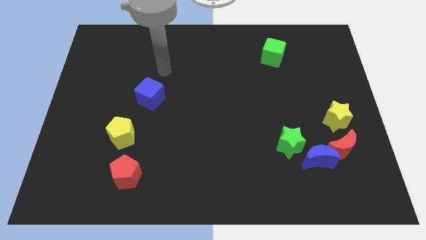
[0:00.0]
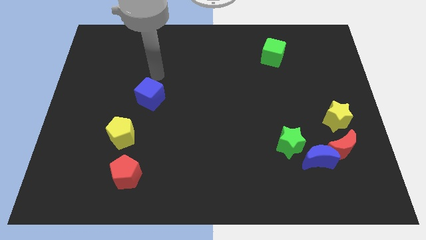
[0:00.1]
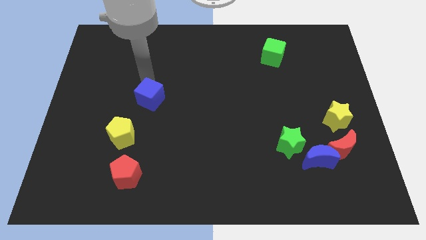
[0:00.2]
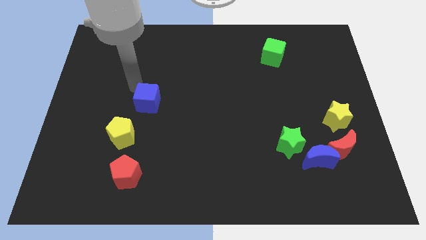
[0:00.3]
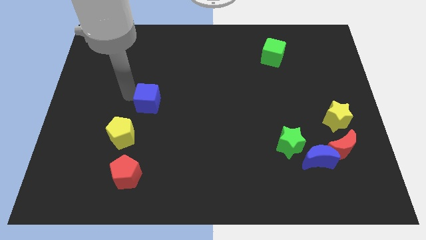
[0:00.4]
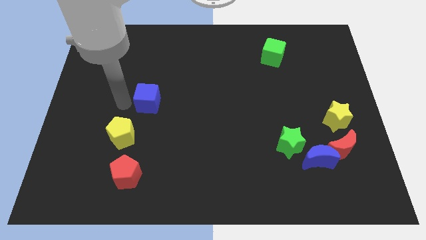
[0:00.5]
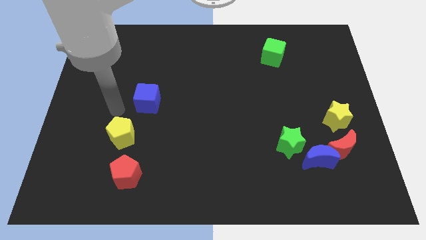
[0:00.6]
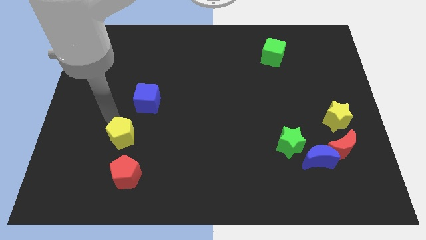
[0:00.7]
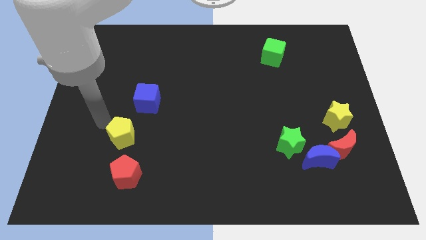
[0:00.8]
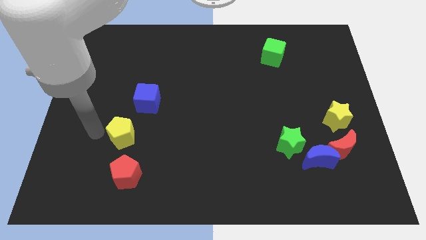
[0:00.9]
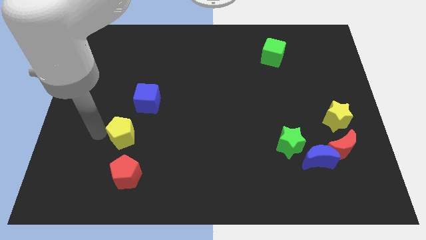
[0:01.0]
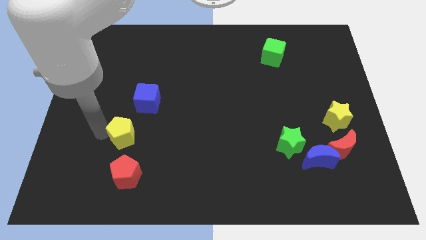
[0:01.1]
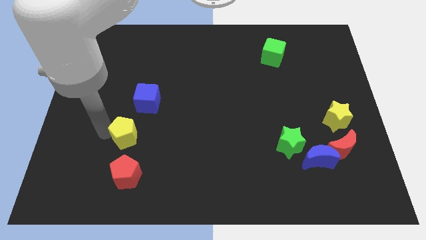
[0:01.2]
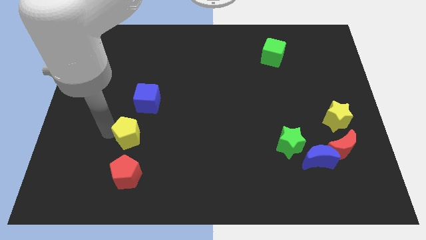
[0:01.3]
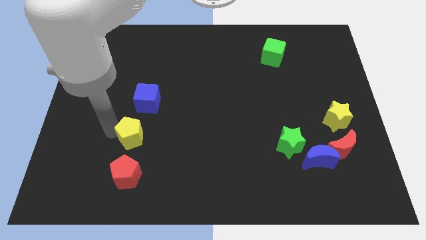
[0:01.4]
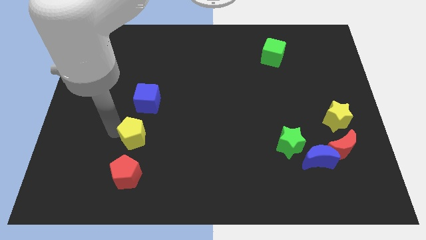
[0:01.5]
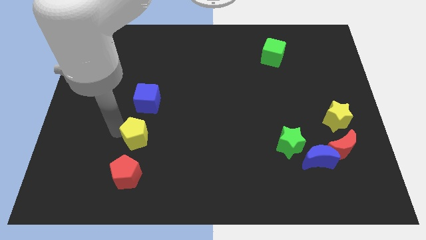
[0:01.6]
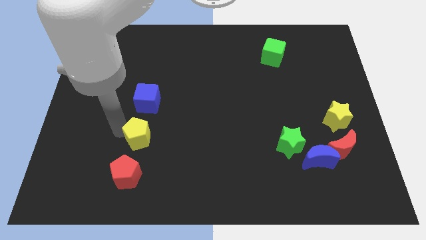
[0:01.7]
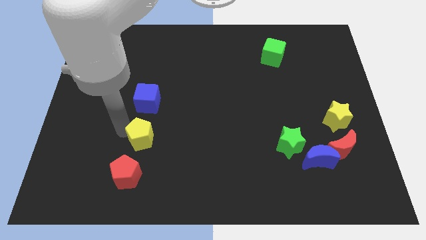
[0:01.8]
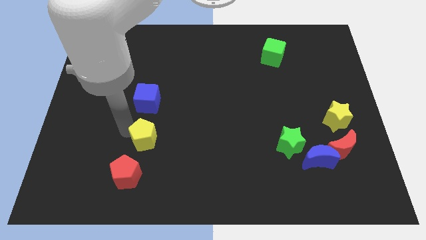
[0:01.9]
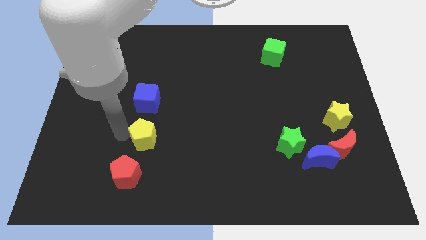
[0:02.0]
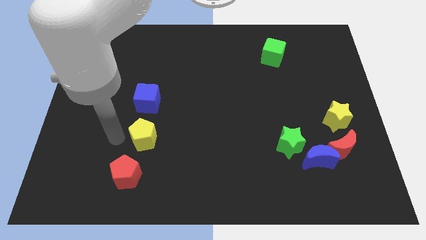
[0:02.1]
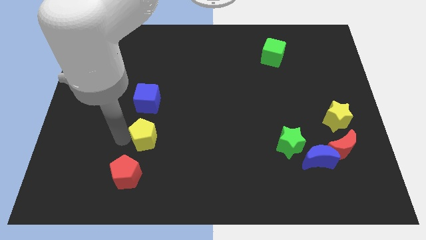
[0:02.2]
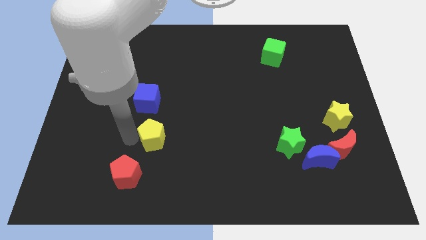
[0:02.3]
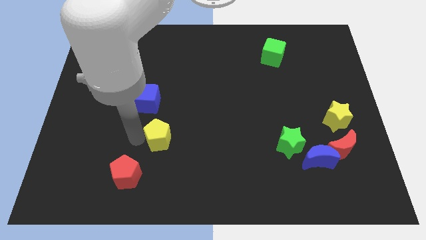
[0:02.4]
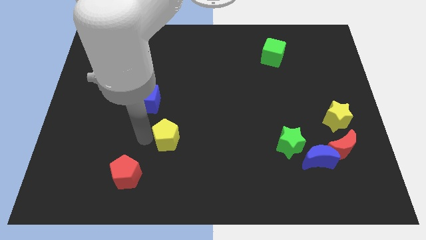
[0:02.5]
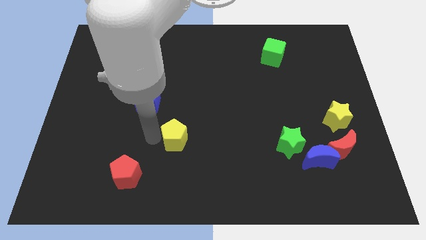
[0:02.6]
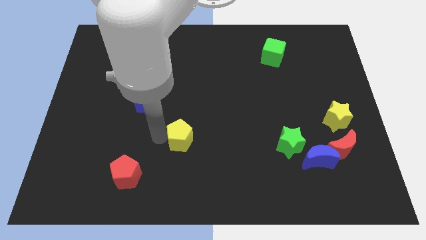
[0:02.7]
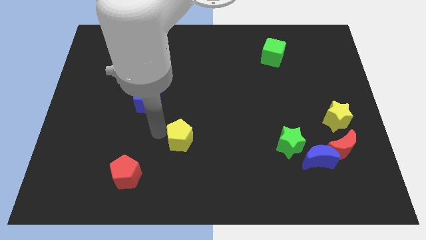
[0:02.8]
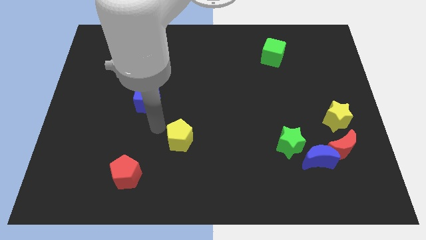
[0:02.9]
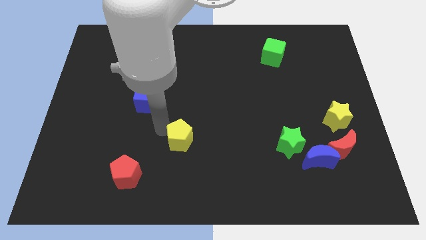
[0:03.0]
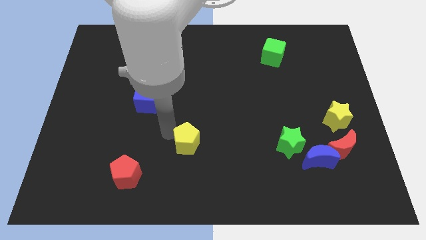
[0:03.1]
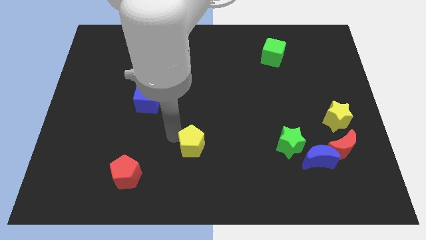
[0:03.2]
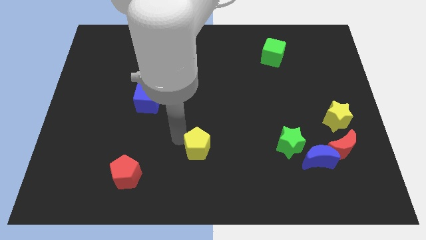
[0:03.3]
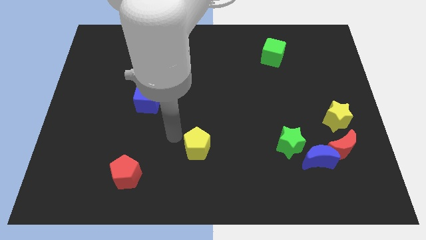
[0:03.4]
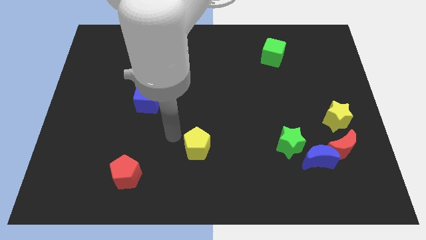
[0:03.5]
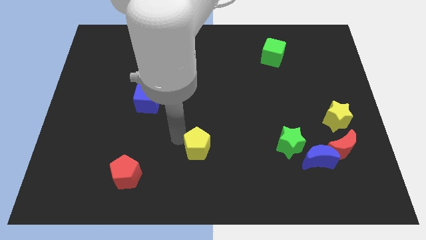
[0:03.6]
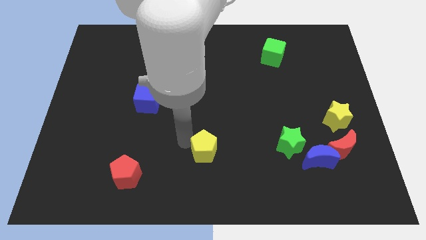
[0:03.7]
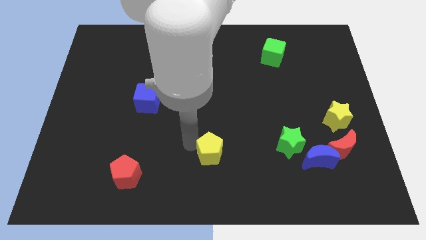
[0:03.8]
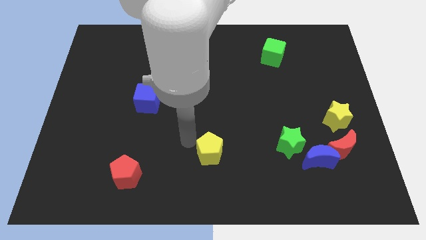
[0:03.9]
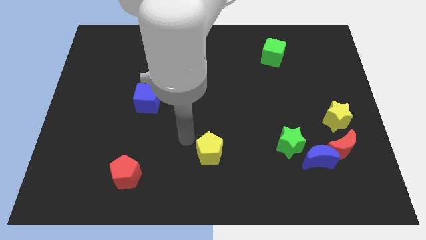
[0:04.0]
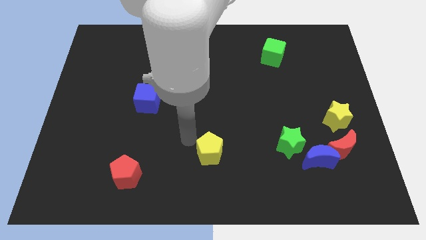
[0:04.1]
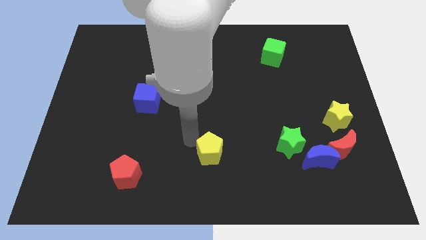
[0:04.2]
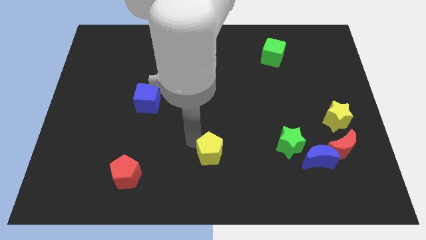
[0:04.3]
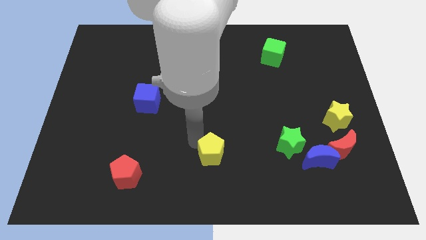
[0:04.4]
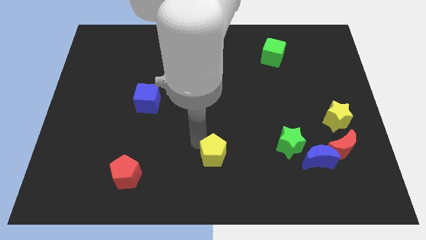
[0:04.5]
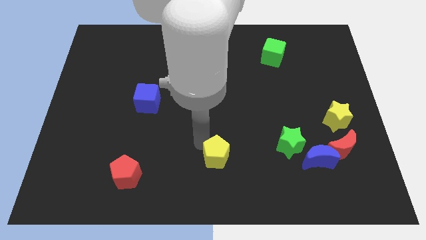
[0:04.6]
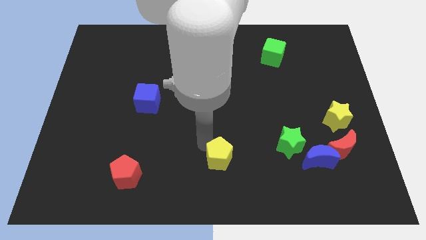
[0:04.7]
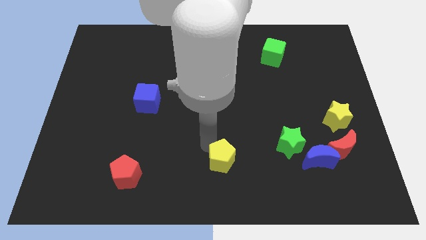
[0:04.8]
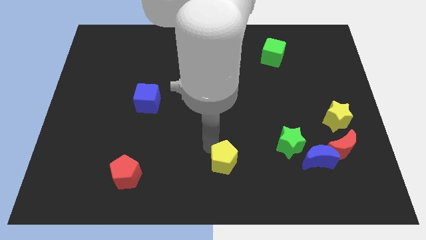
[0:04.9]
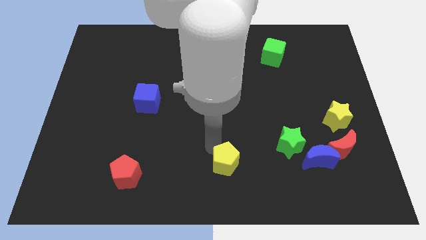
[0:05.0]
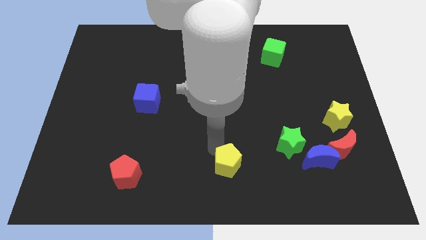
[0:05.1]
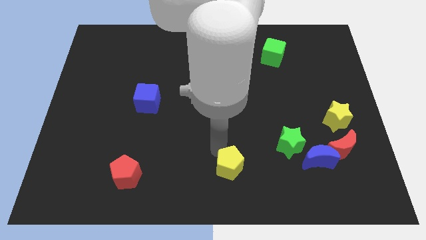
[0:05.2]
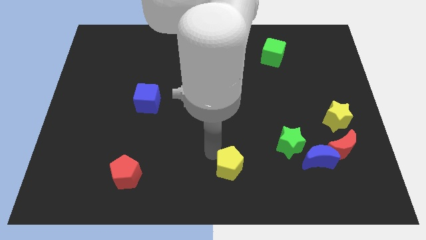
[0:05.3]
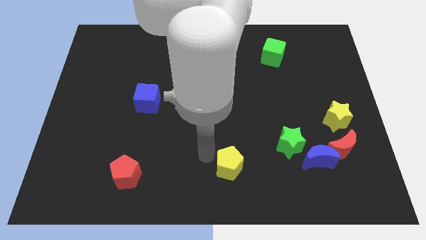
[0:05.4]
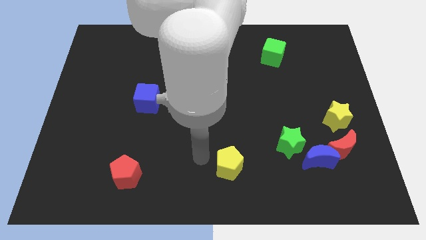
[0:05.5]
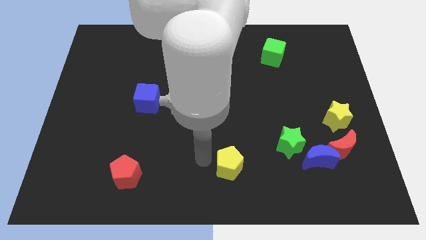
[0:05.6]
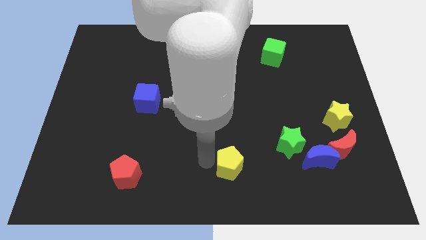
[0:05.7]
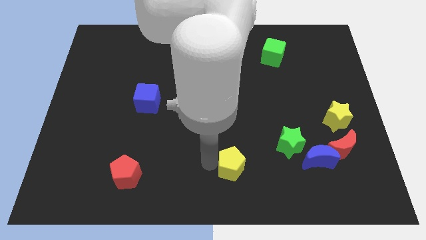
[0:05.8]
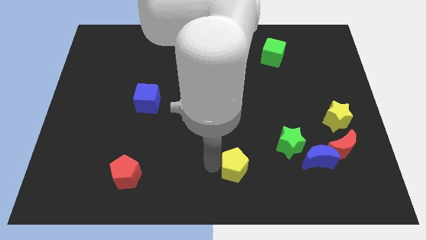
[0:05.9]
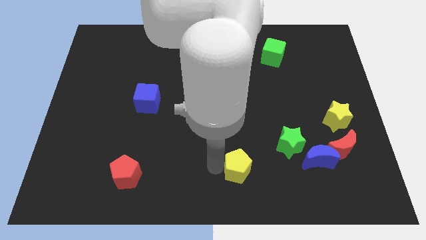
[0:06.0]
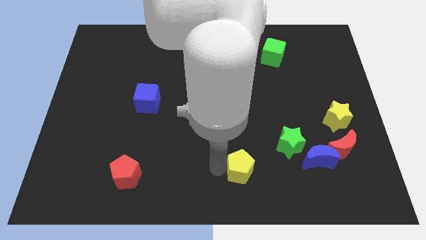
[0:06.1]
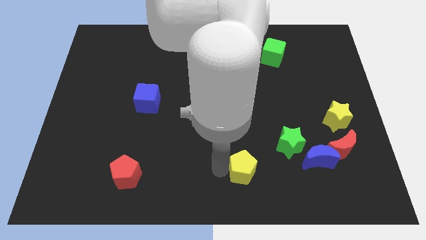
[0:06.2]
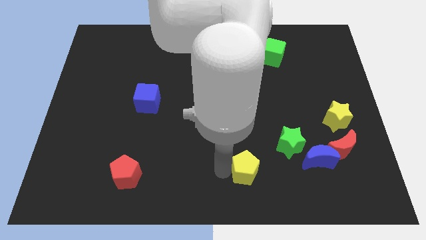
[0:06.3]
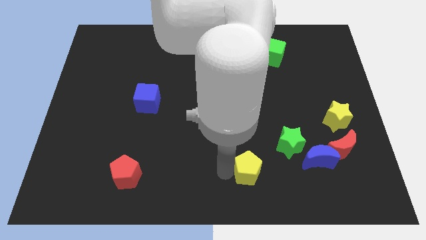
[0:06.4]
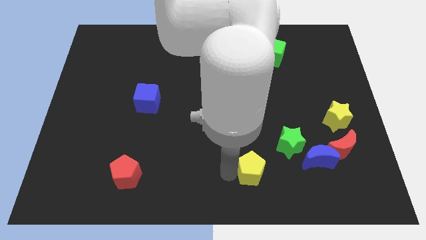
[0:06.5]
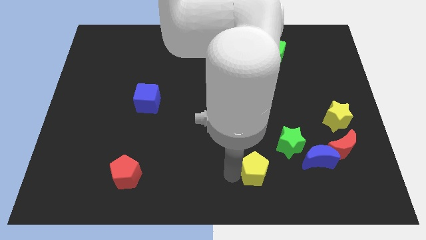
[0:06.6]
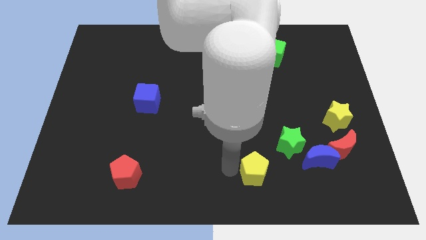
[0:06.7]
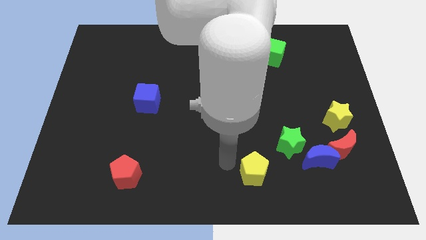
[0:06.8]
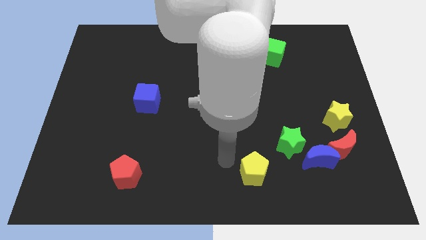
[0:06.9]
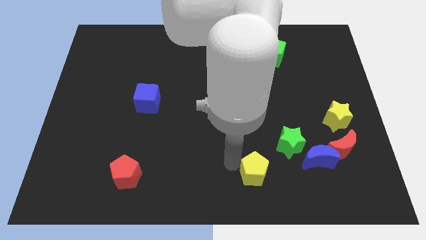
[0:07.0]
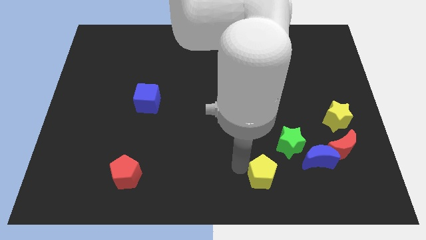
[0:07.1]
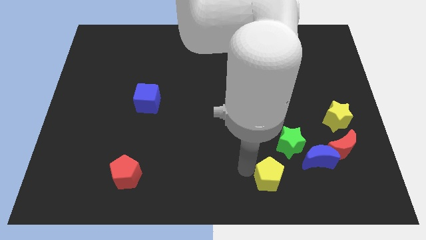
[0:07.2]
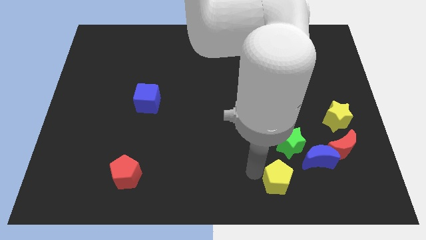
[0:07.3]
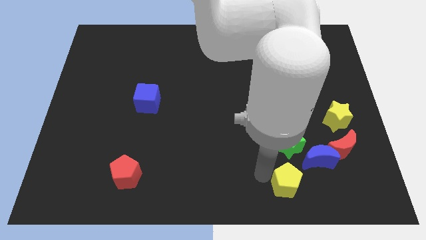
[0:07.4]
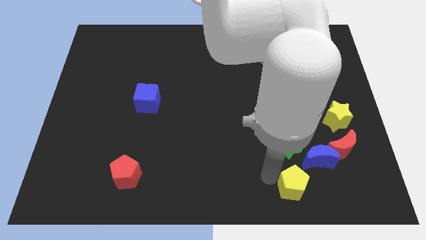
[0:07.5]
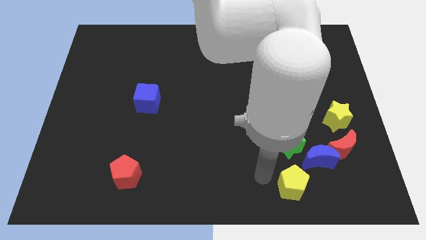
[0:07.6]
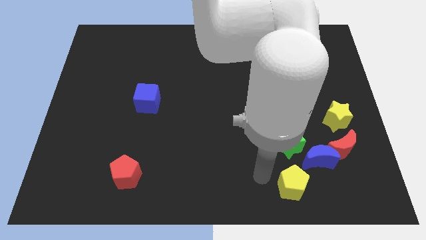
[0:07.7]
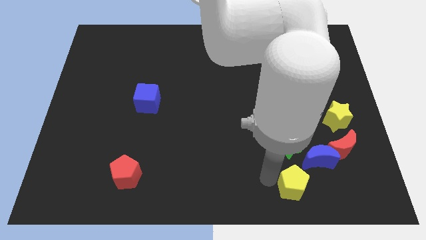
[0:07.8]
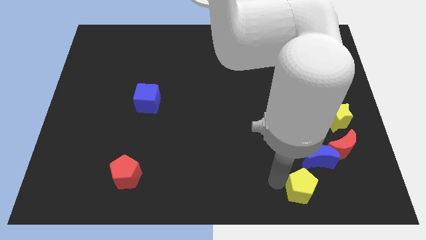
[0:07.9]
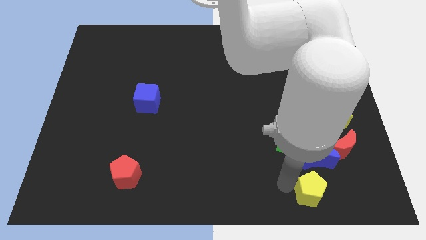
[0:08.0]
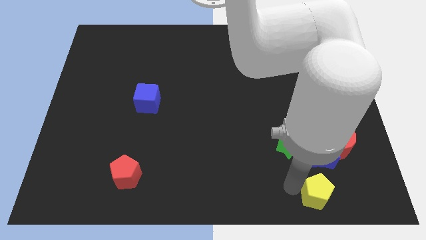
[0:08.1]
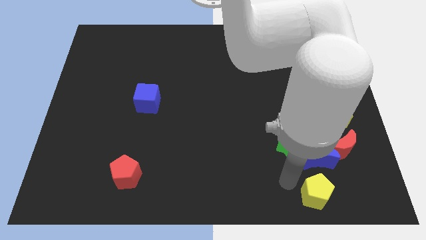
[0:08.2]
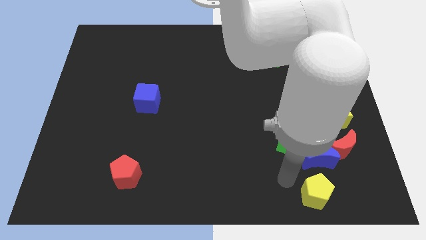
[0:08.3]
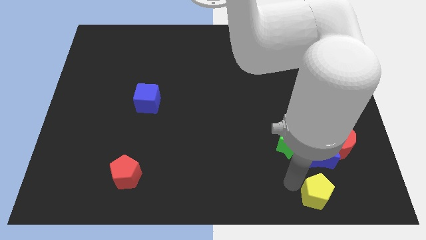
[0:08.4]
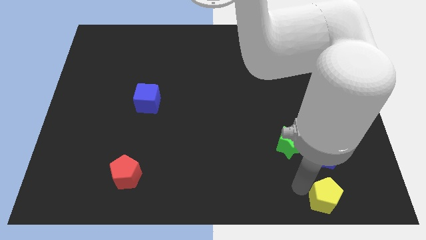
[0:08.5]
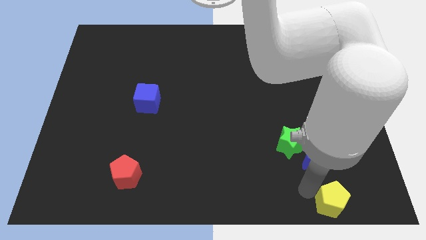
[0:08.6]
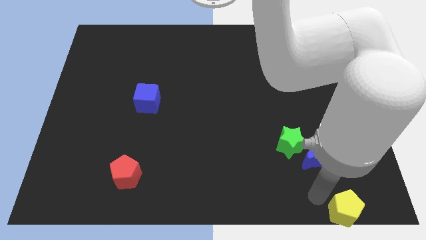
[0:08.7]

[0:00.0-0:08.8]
push the yellow pentagon to the bottom right
